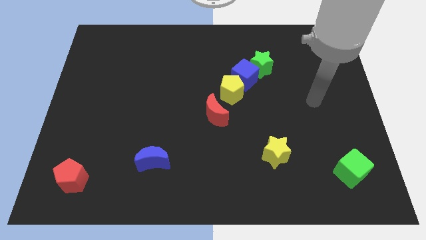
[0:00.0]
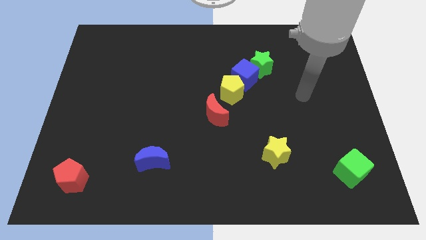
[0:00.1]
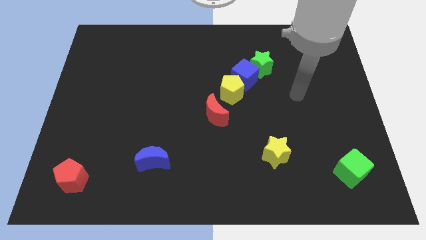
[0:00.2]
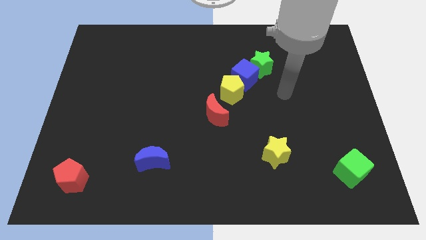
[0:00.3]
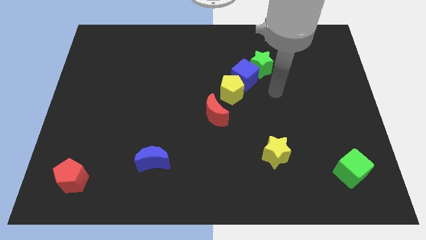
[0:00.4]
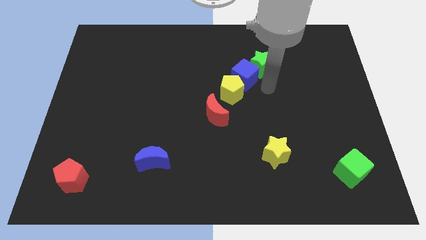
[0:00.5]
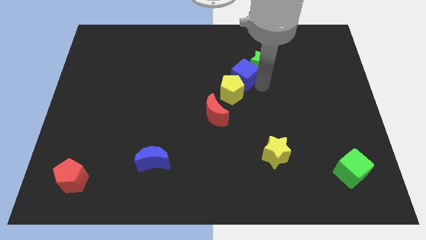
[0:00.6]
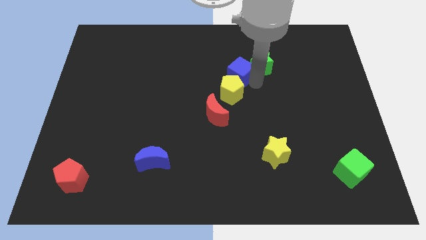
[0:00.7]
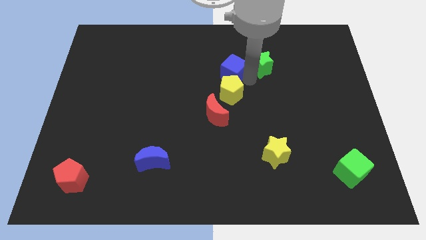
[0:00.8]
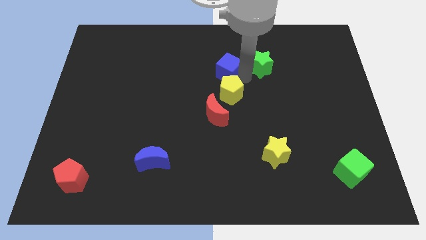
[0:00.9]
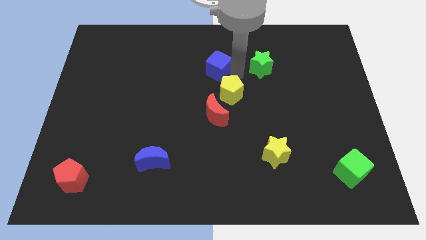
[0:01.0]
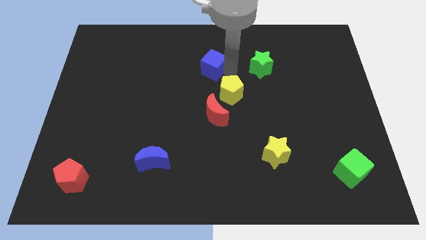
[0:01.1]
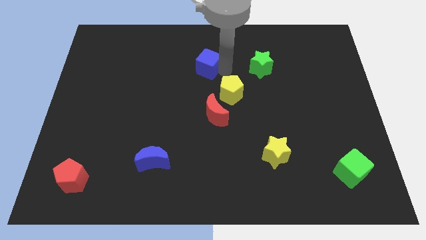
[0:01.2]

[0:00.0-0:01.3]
separate the blue cube from the yellow pentagon and green star

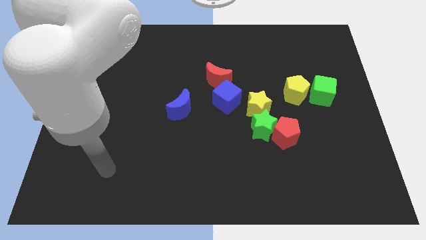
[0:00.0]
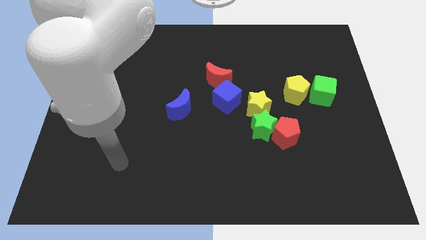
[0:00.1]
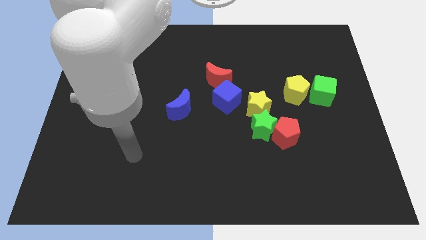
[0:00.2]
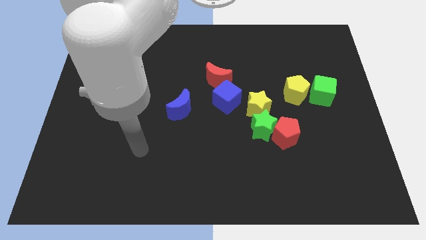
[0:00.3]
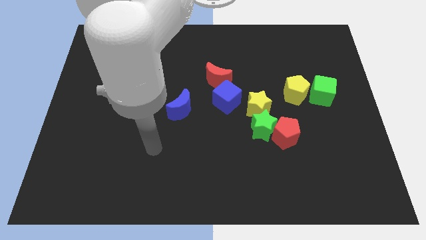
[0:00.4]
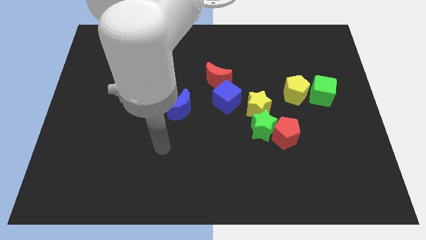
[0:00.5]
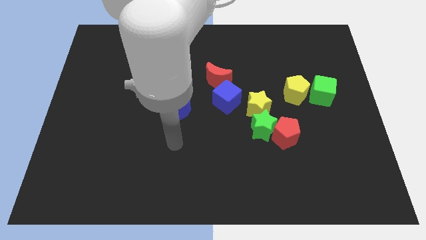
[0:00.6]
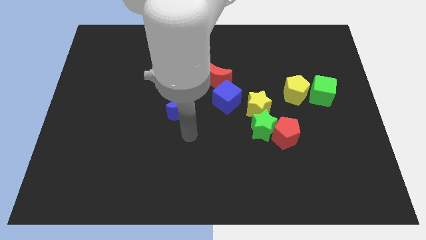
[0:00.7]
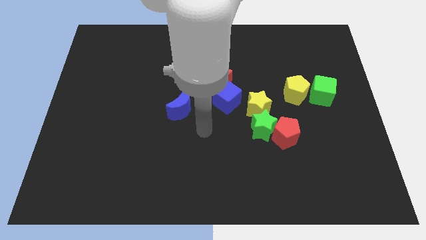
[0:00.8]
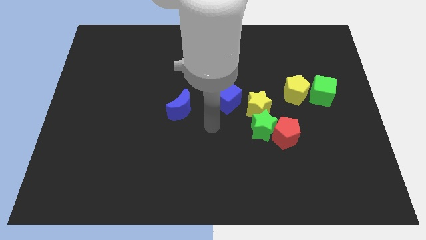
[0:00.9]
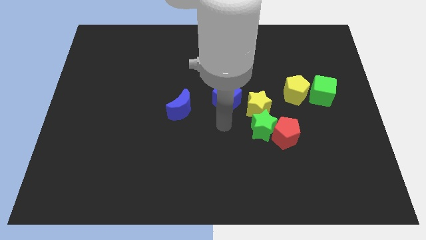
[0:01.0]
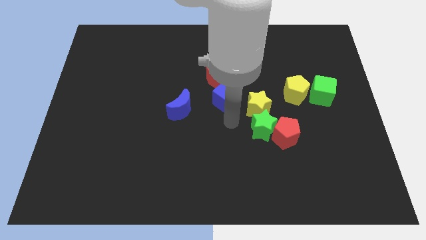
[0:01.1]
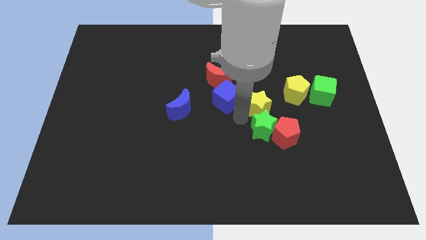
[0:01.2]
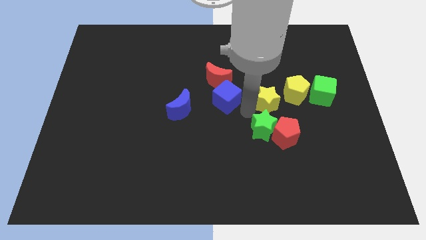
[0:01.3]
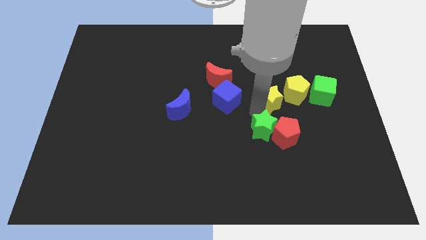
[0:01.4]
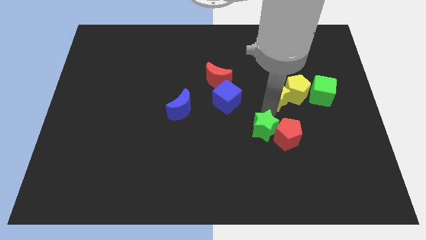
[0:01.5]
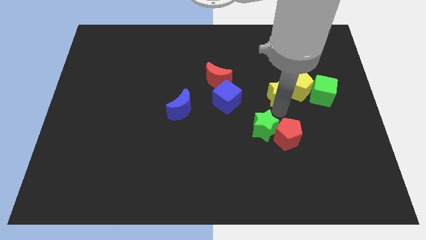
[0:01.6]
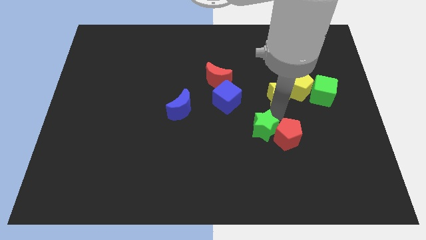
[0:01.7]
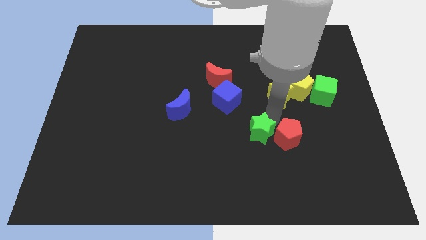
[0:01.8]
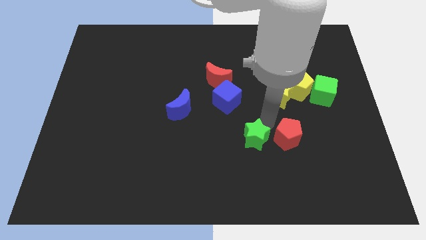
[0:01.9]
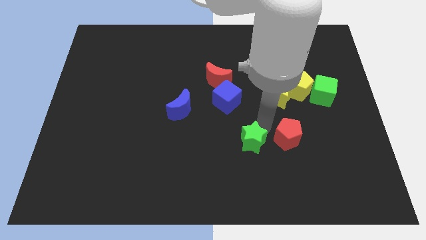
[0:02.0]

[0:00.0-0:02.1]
move the green star away from the red pentagon and yellow star

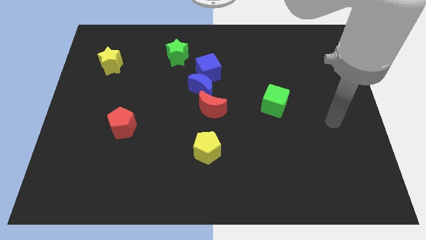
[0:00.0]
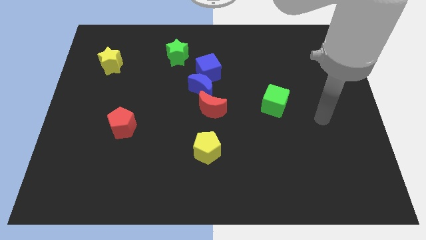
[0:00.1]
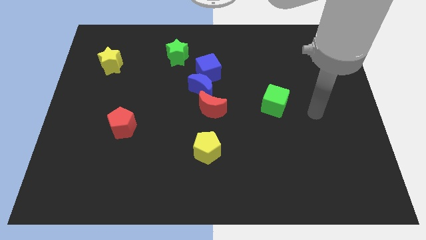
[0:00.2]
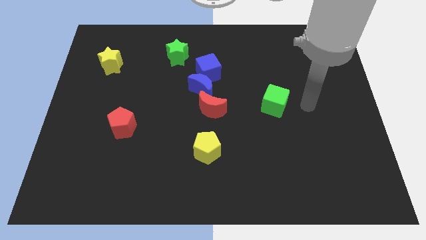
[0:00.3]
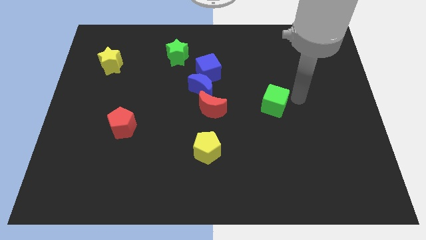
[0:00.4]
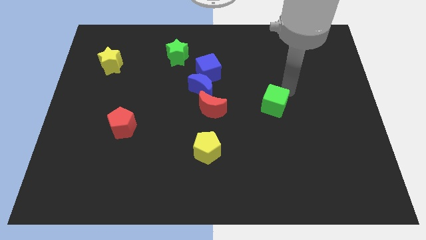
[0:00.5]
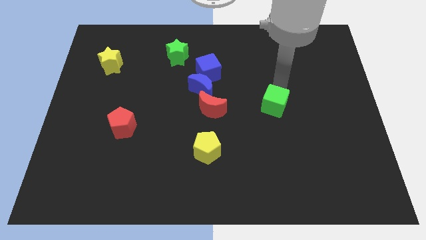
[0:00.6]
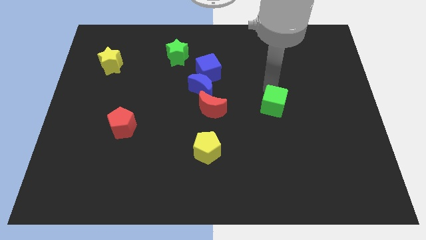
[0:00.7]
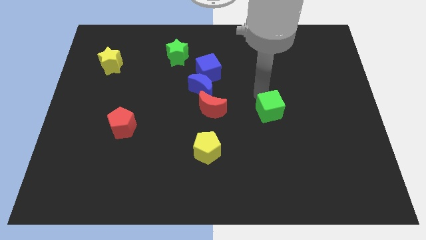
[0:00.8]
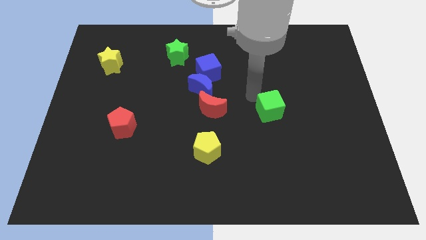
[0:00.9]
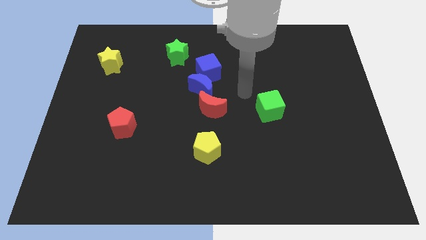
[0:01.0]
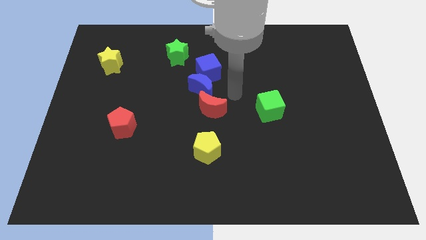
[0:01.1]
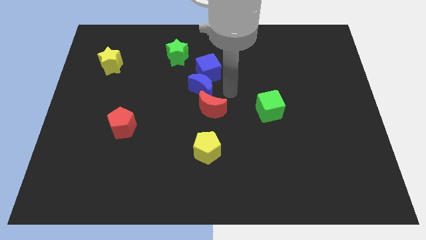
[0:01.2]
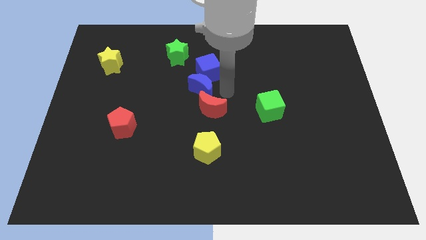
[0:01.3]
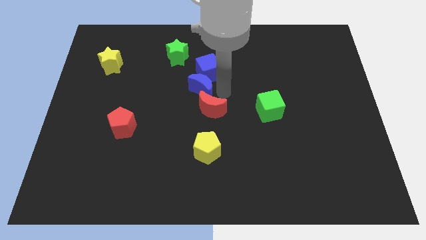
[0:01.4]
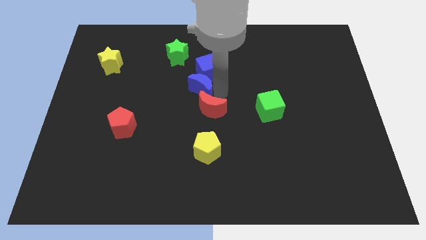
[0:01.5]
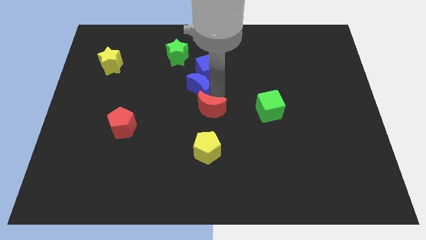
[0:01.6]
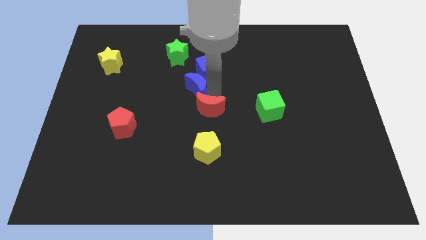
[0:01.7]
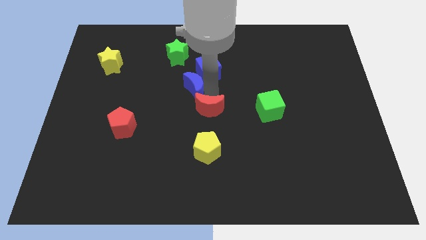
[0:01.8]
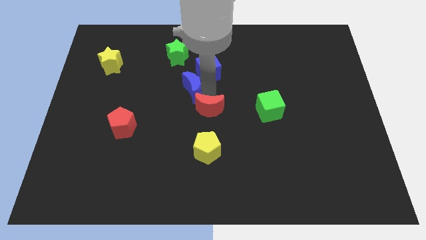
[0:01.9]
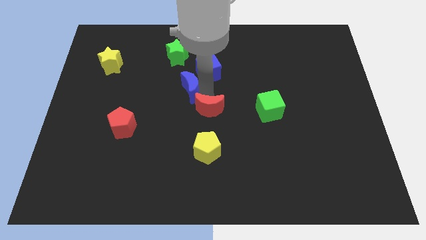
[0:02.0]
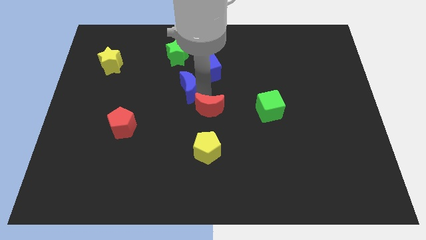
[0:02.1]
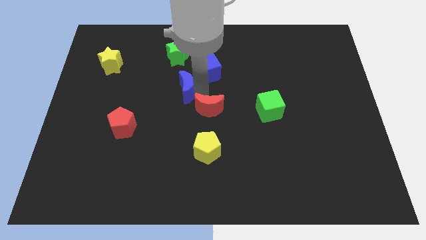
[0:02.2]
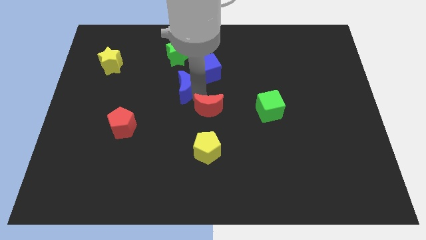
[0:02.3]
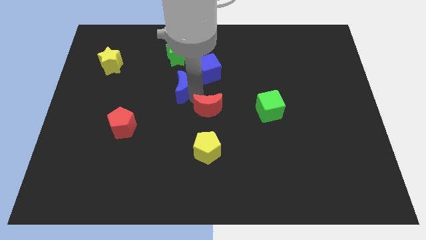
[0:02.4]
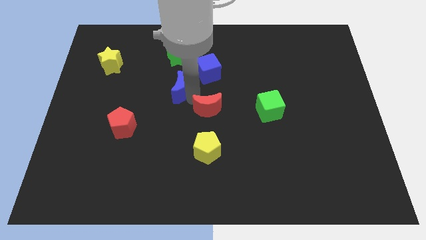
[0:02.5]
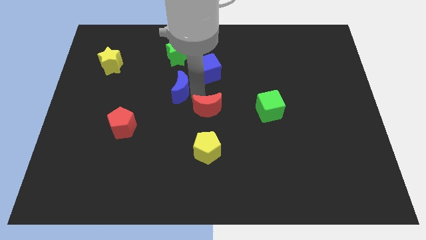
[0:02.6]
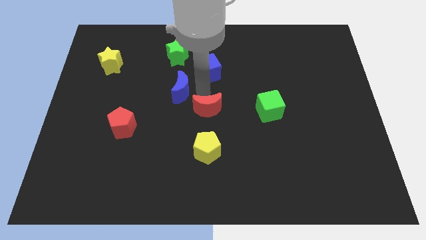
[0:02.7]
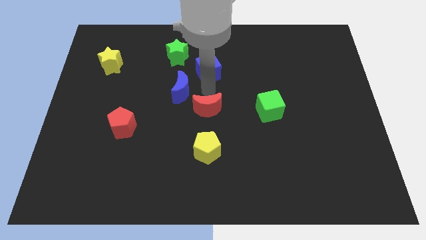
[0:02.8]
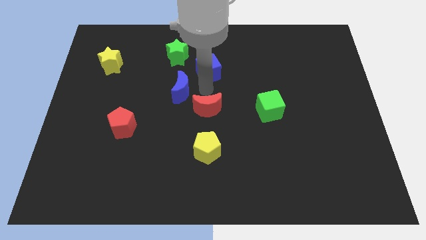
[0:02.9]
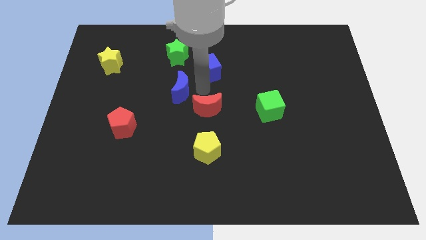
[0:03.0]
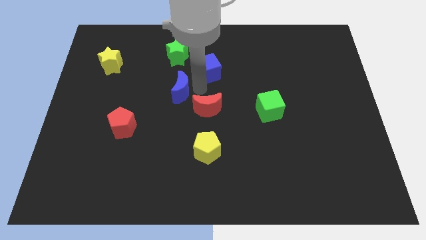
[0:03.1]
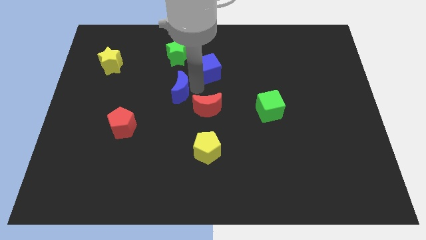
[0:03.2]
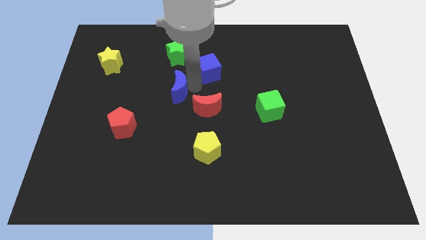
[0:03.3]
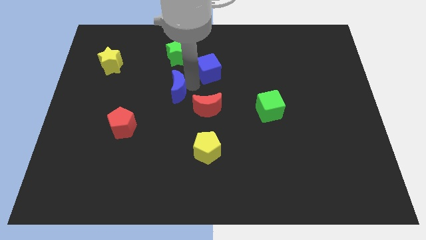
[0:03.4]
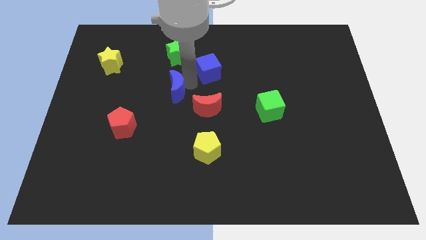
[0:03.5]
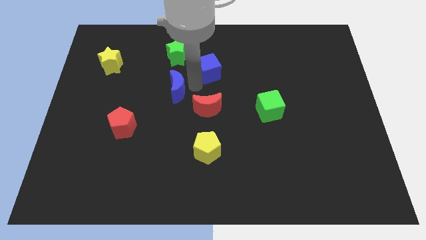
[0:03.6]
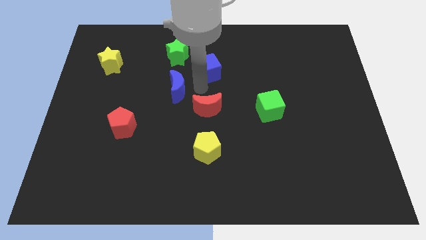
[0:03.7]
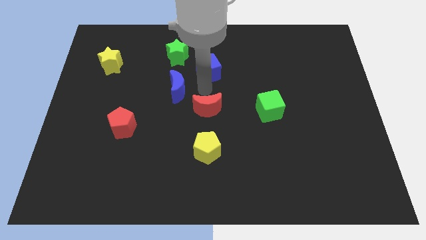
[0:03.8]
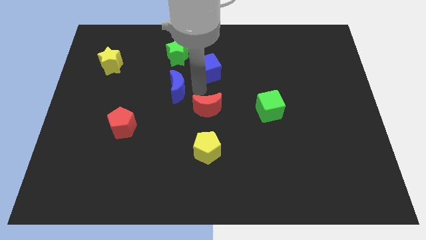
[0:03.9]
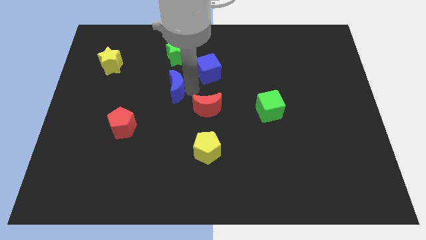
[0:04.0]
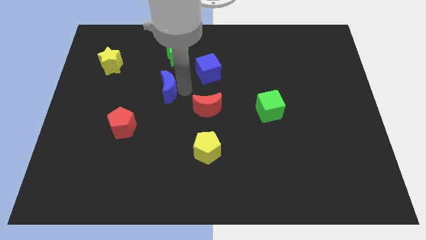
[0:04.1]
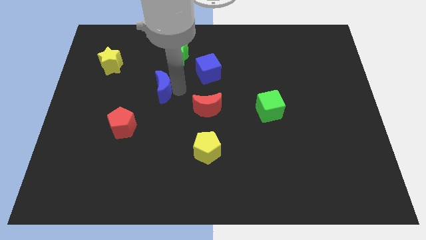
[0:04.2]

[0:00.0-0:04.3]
separate the blue moon from the blue cube and red moon

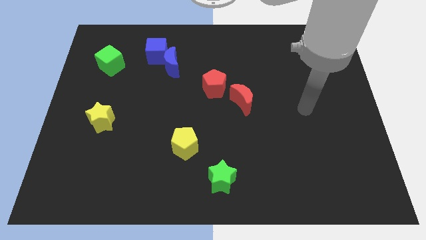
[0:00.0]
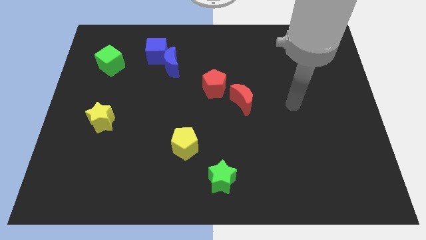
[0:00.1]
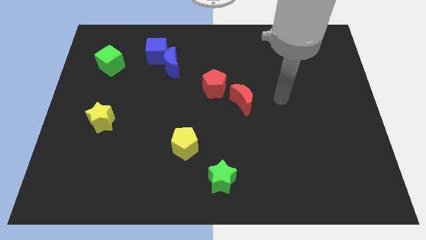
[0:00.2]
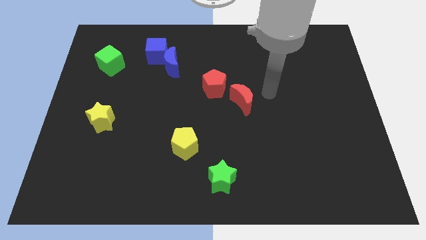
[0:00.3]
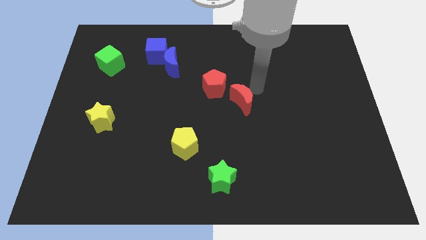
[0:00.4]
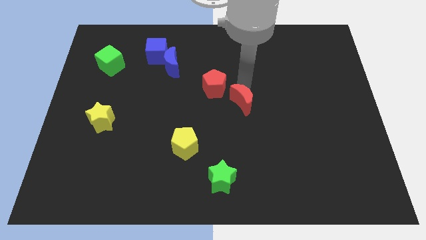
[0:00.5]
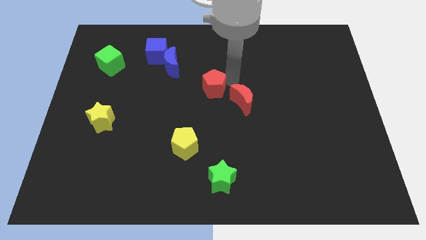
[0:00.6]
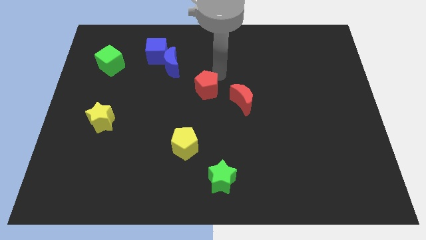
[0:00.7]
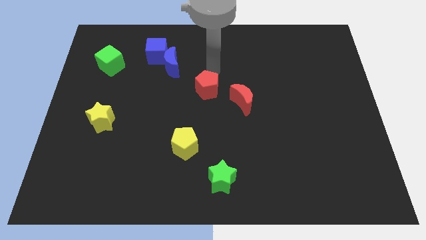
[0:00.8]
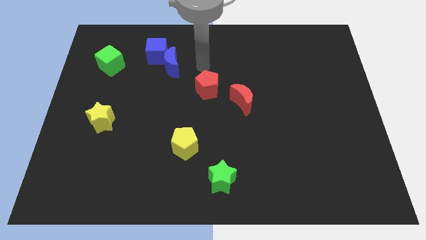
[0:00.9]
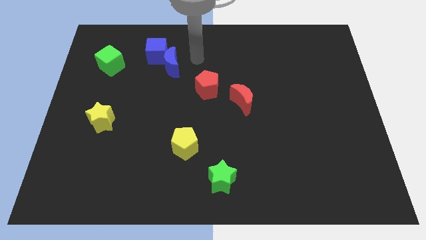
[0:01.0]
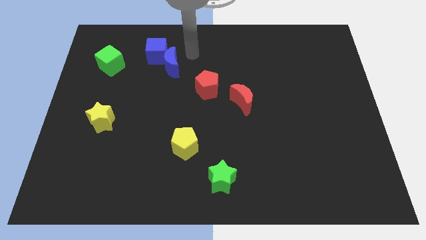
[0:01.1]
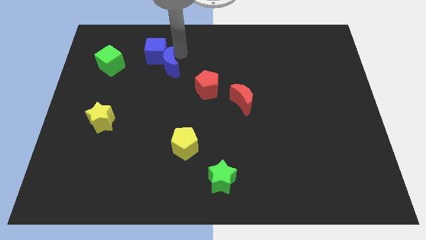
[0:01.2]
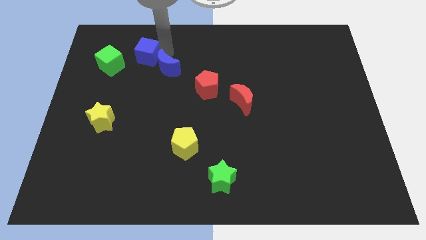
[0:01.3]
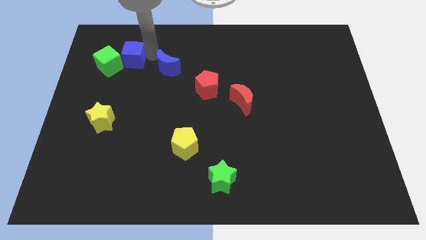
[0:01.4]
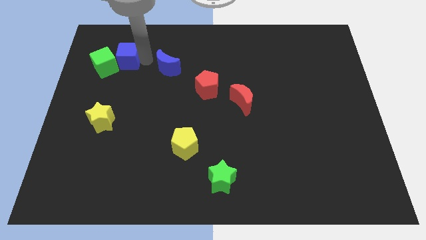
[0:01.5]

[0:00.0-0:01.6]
pull the blue moon apart from the blue cube

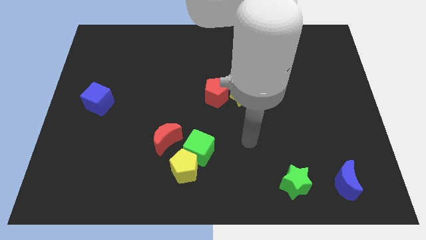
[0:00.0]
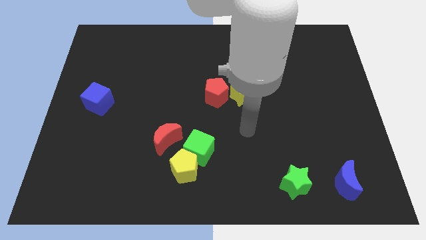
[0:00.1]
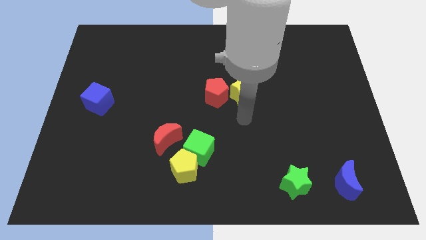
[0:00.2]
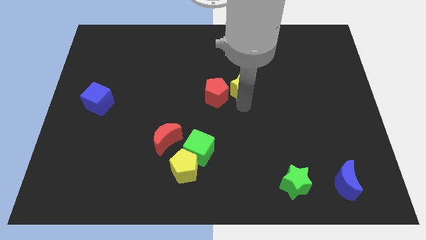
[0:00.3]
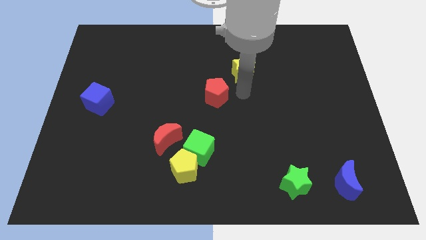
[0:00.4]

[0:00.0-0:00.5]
pull the red pentagon apart from the yellow star
